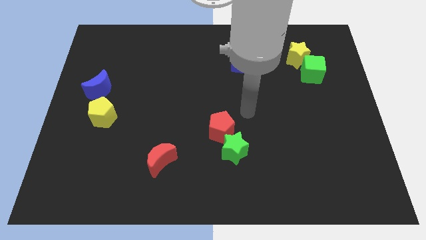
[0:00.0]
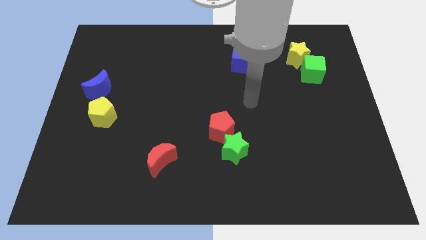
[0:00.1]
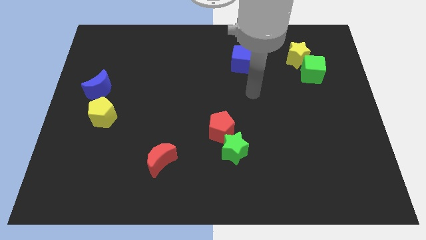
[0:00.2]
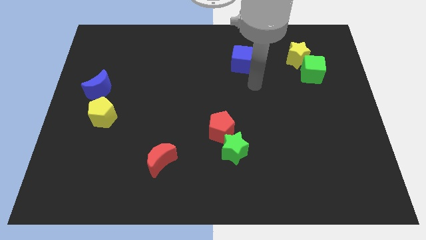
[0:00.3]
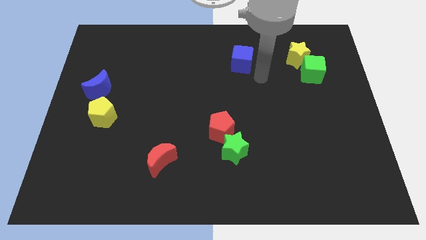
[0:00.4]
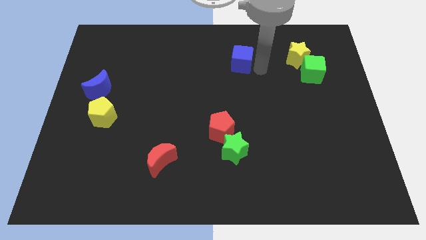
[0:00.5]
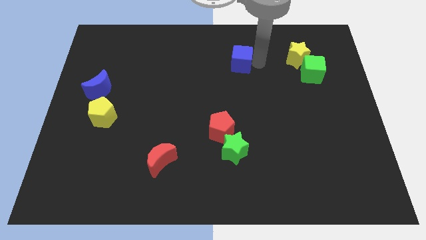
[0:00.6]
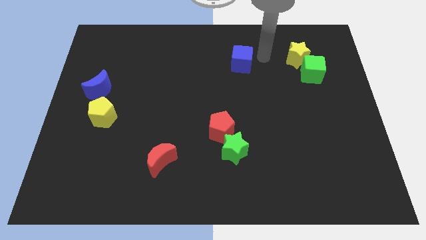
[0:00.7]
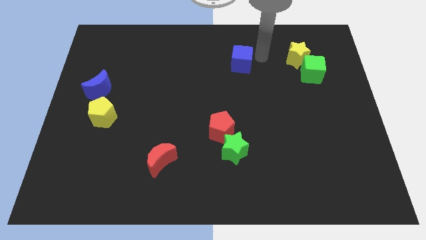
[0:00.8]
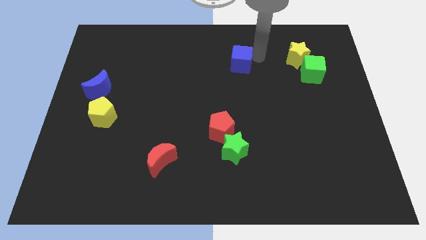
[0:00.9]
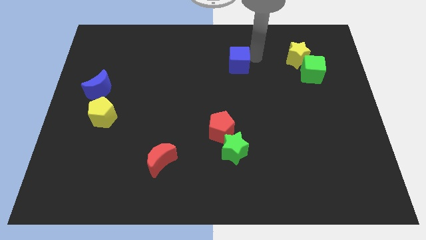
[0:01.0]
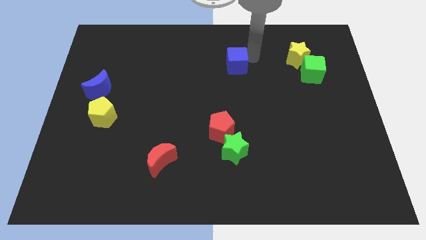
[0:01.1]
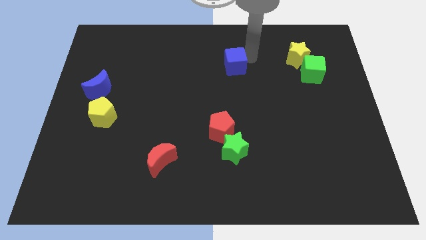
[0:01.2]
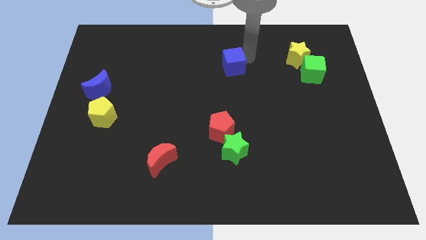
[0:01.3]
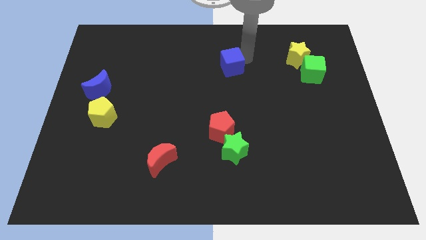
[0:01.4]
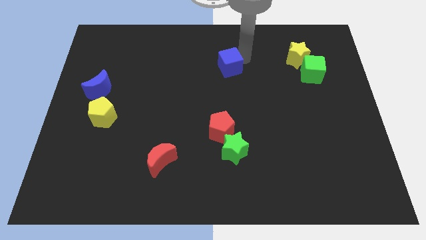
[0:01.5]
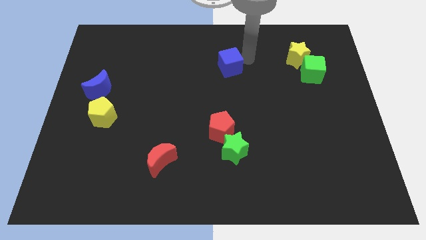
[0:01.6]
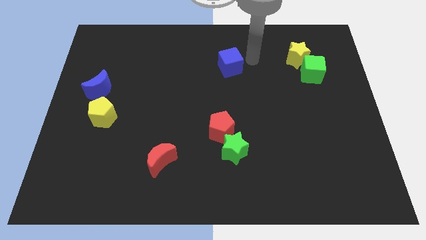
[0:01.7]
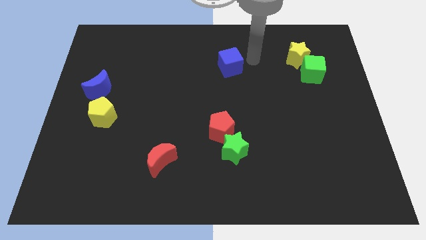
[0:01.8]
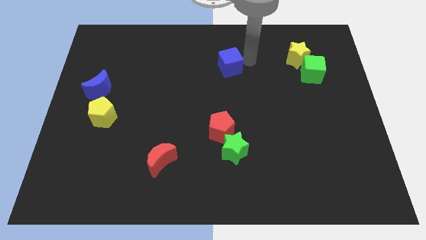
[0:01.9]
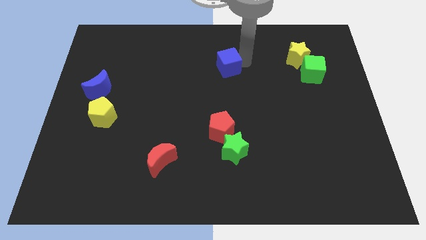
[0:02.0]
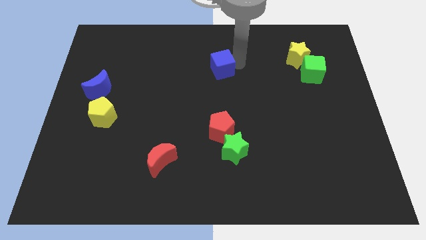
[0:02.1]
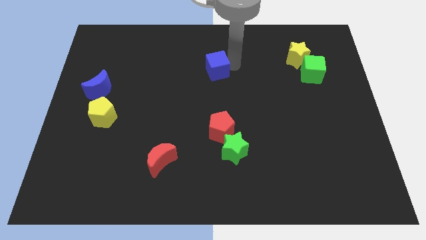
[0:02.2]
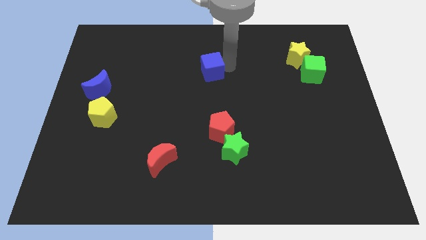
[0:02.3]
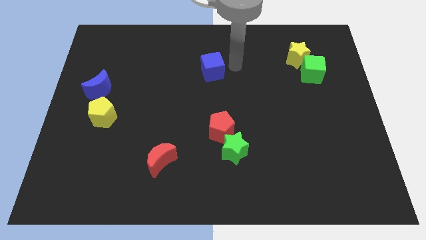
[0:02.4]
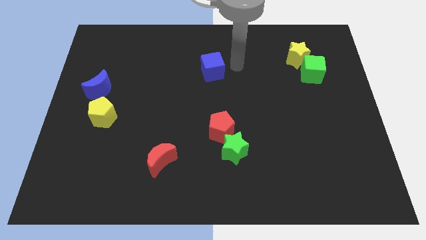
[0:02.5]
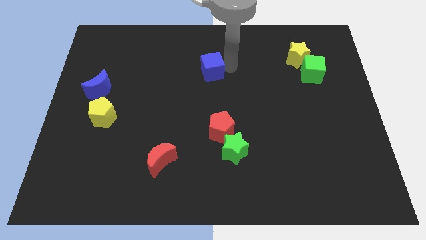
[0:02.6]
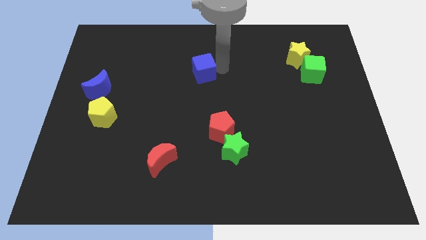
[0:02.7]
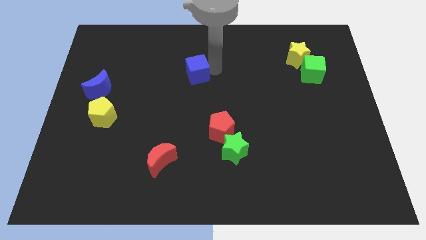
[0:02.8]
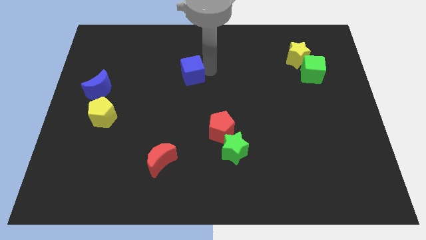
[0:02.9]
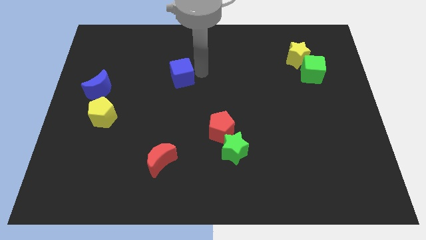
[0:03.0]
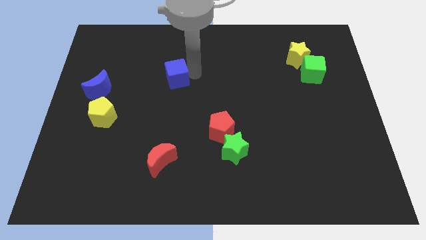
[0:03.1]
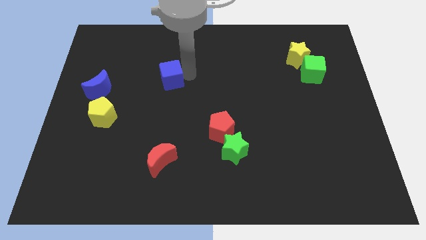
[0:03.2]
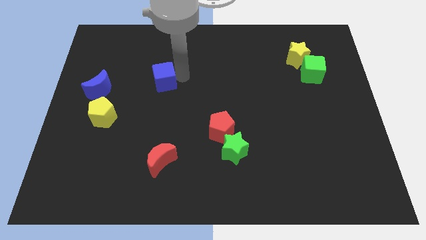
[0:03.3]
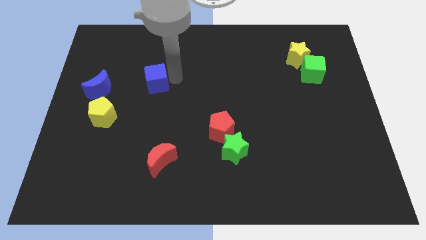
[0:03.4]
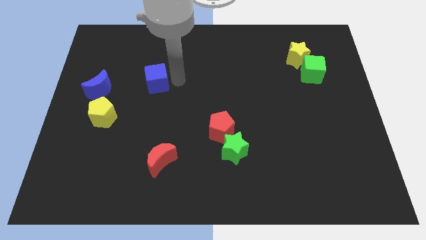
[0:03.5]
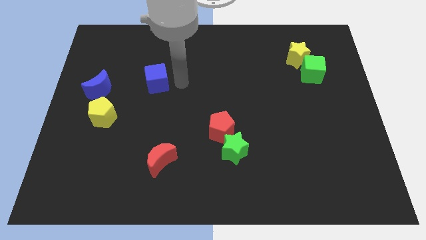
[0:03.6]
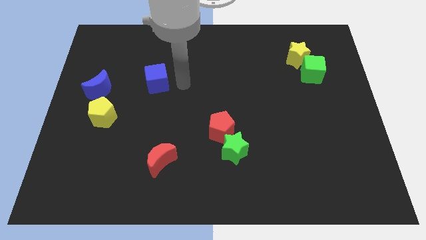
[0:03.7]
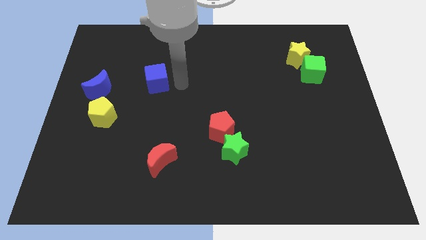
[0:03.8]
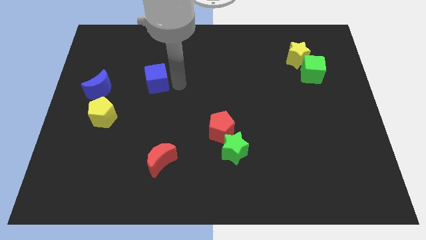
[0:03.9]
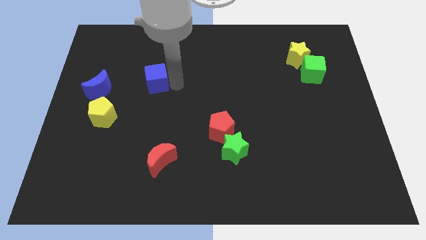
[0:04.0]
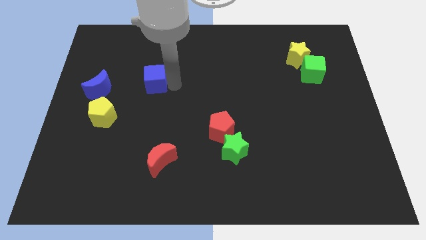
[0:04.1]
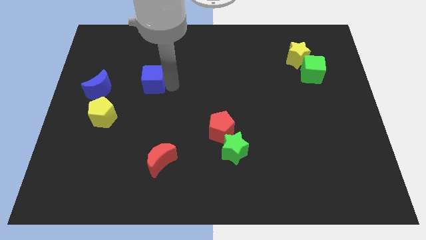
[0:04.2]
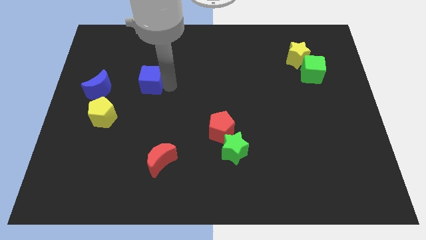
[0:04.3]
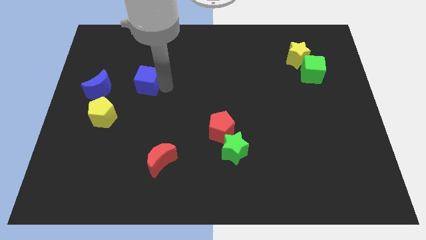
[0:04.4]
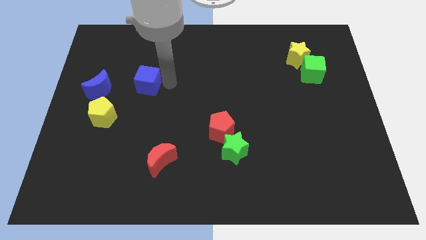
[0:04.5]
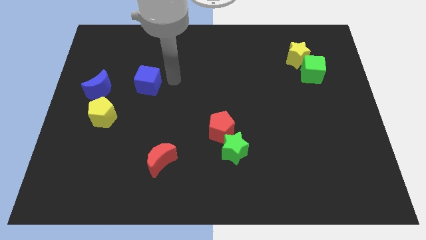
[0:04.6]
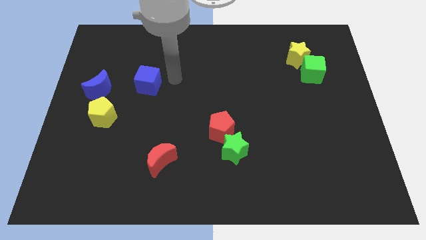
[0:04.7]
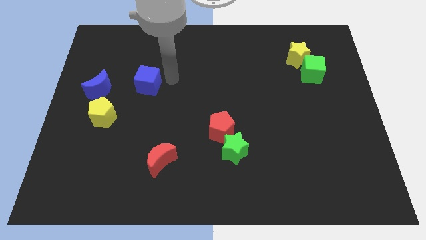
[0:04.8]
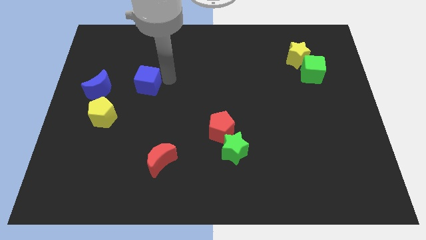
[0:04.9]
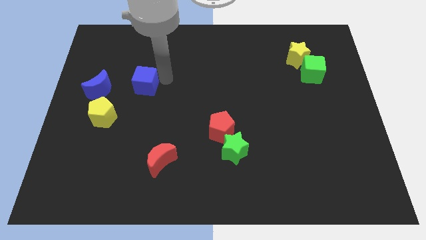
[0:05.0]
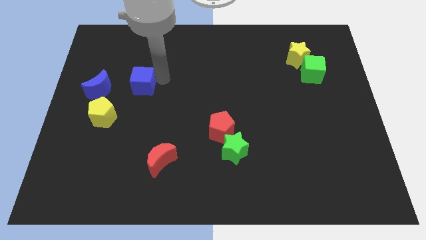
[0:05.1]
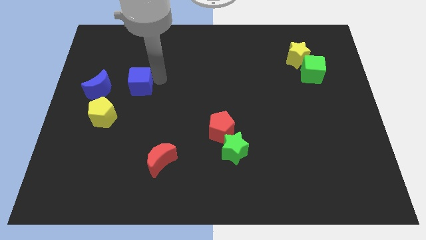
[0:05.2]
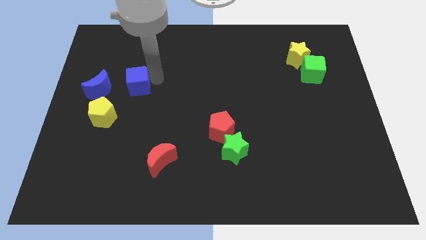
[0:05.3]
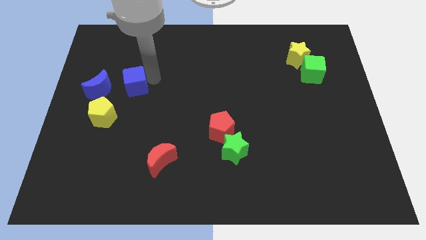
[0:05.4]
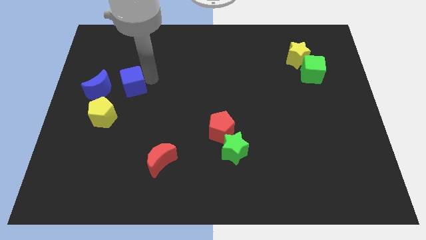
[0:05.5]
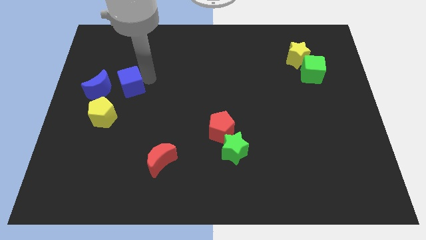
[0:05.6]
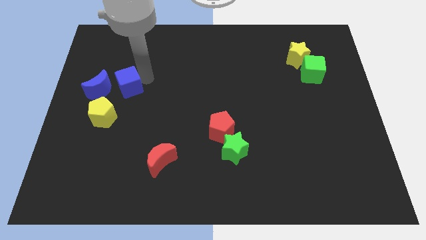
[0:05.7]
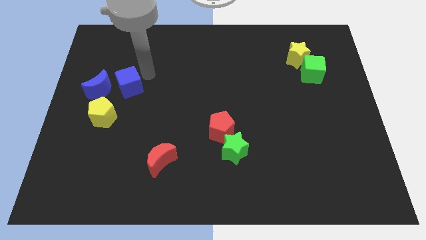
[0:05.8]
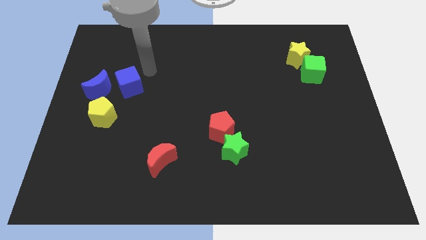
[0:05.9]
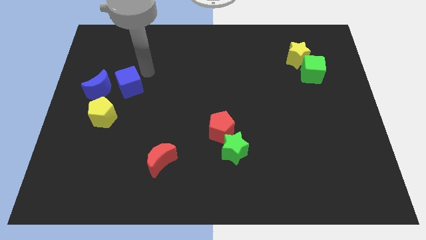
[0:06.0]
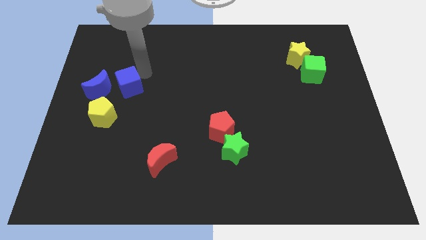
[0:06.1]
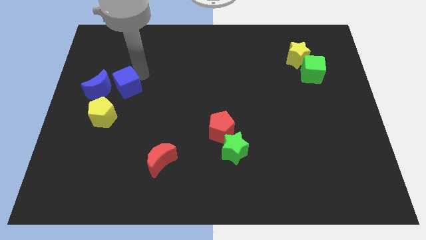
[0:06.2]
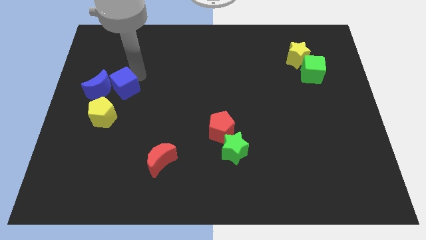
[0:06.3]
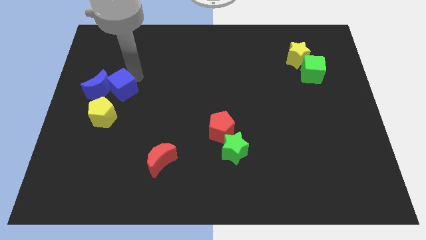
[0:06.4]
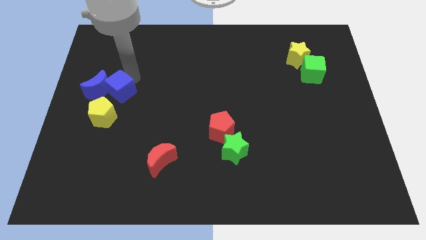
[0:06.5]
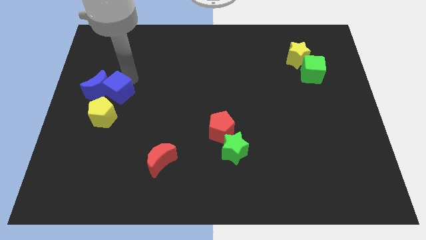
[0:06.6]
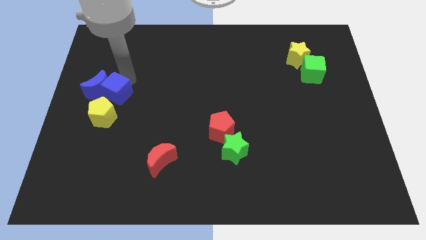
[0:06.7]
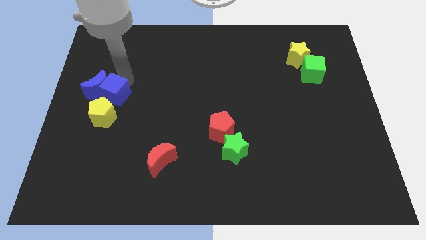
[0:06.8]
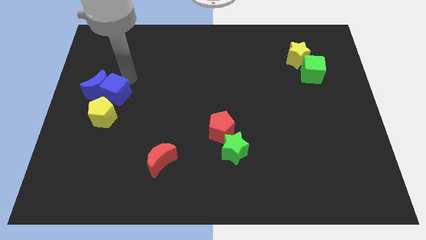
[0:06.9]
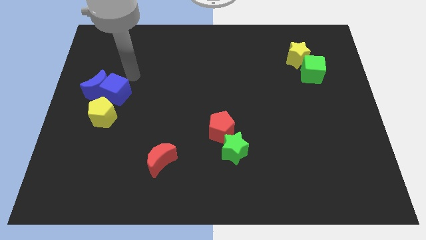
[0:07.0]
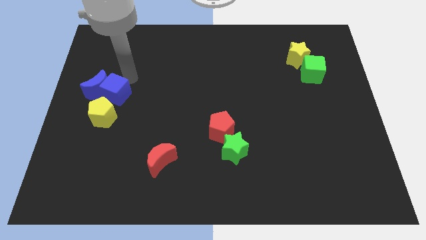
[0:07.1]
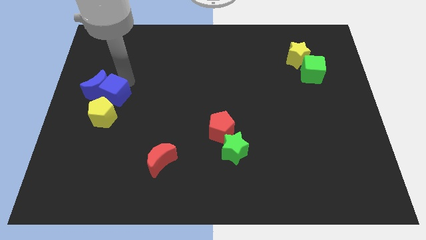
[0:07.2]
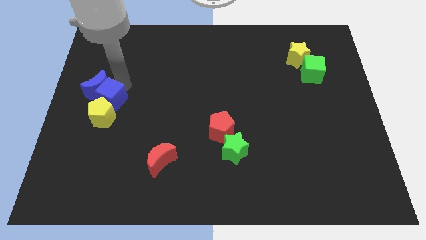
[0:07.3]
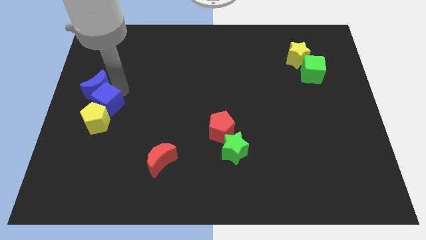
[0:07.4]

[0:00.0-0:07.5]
slide the blue cube to the left side of the board
